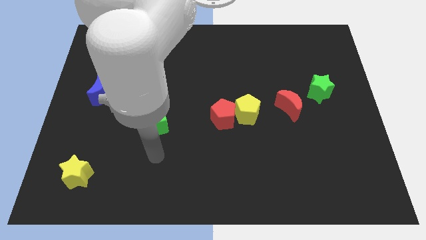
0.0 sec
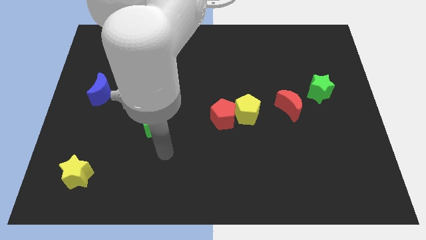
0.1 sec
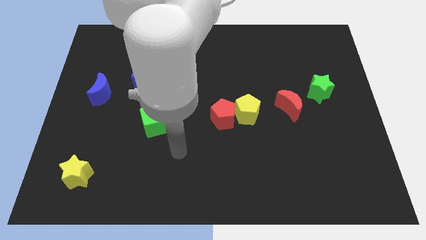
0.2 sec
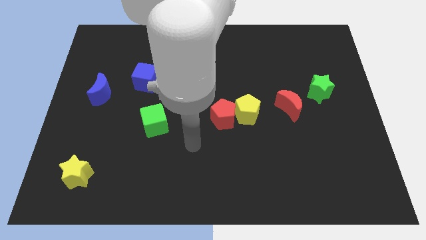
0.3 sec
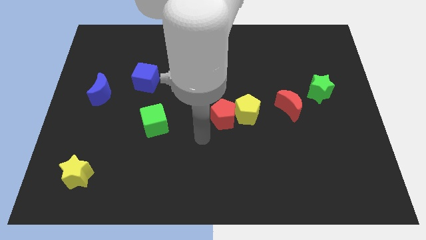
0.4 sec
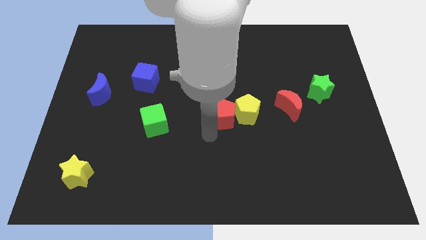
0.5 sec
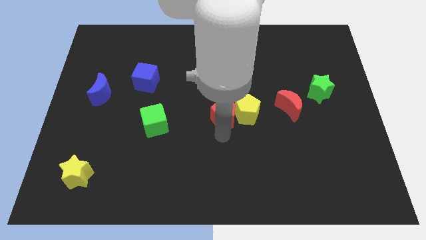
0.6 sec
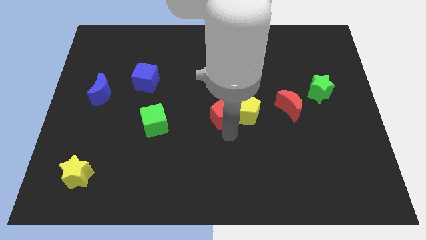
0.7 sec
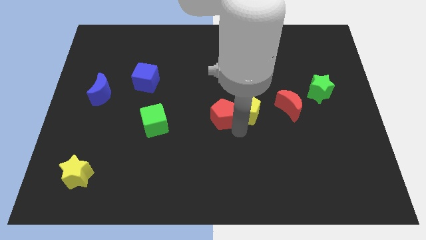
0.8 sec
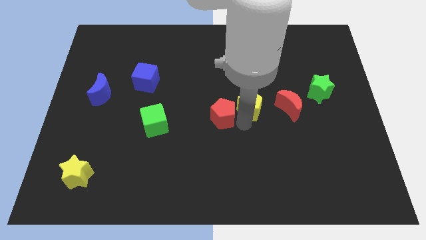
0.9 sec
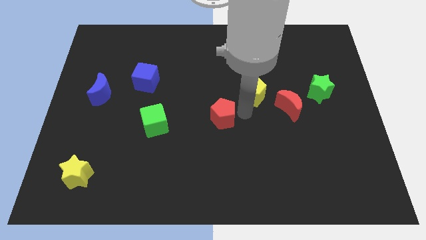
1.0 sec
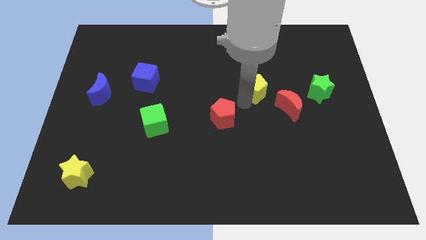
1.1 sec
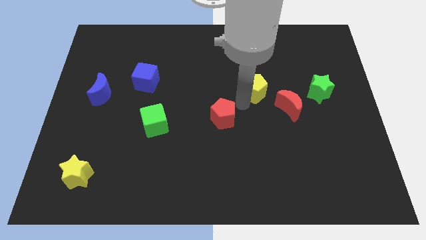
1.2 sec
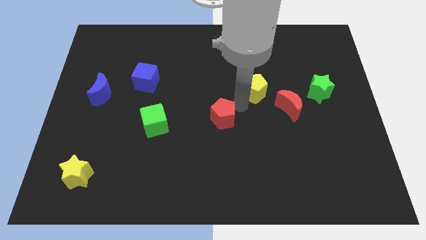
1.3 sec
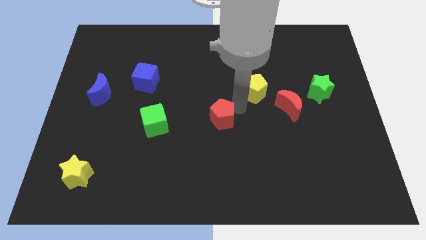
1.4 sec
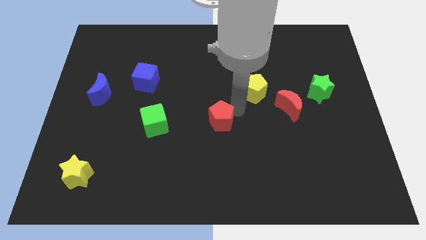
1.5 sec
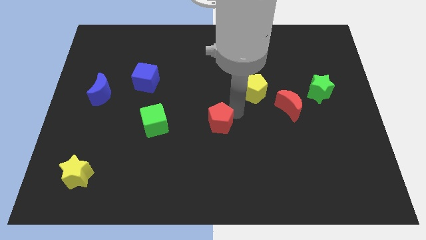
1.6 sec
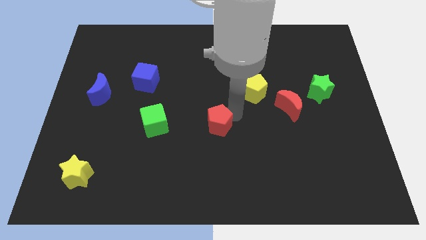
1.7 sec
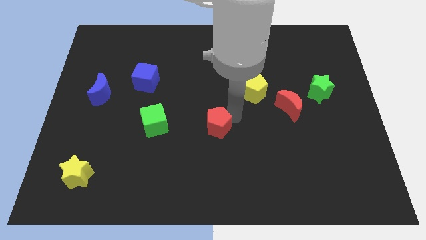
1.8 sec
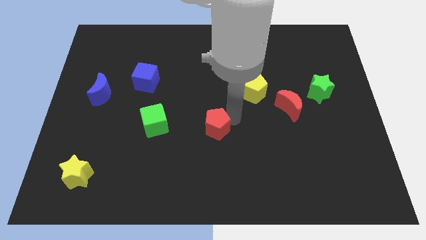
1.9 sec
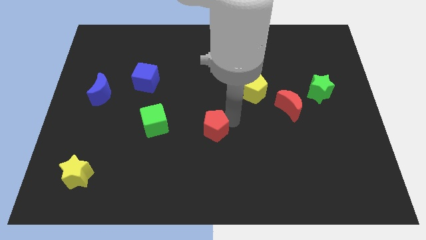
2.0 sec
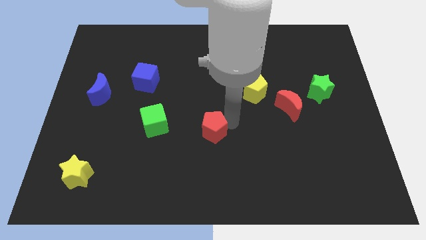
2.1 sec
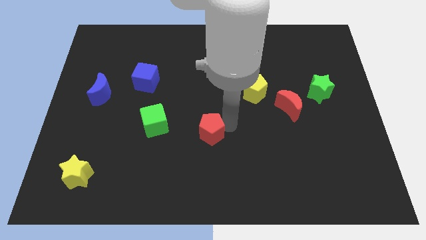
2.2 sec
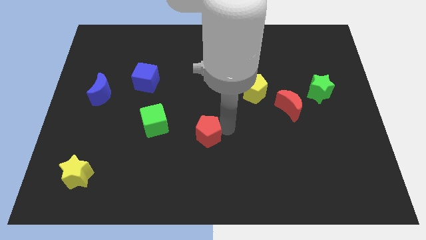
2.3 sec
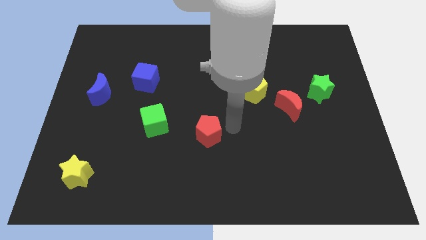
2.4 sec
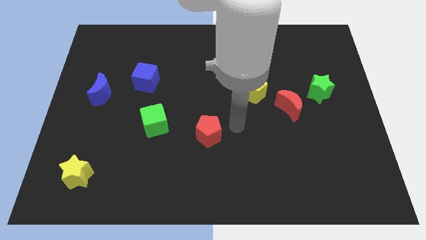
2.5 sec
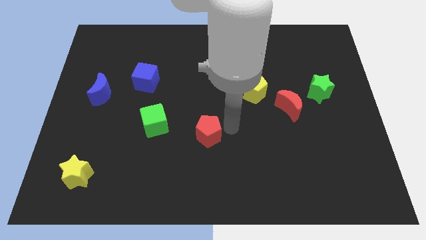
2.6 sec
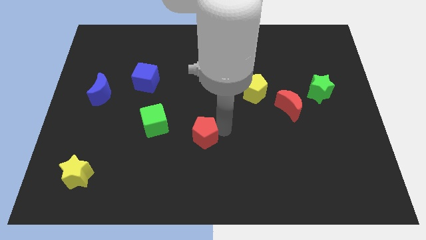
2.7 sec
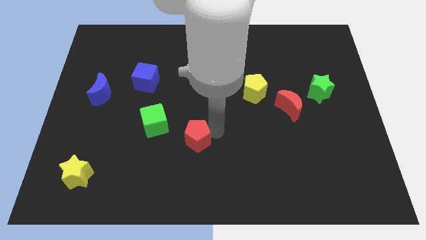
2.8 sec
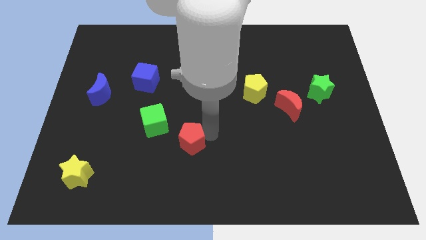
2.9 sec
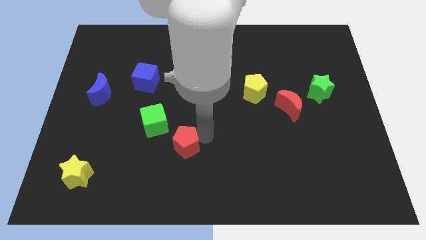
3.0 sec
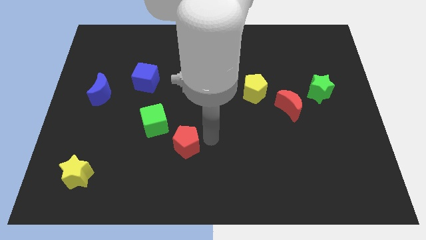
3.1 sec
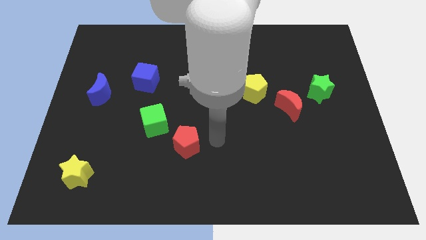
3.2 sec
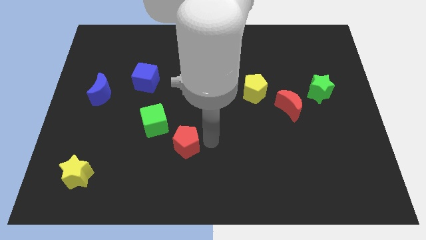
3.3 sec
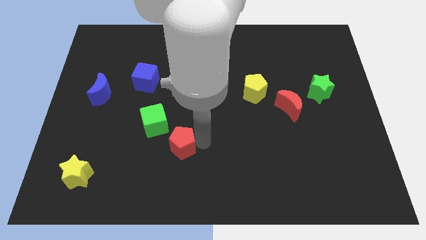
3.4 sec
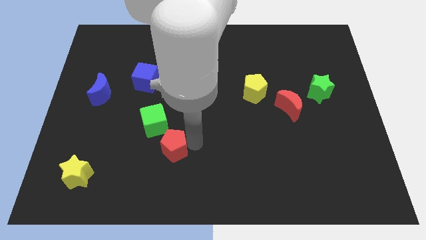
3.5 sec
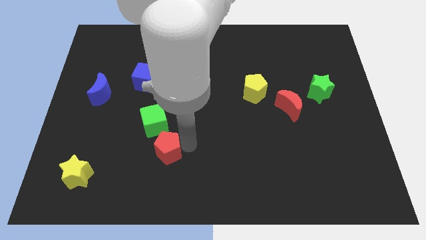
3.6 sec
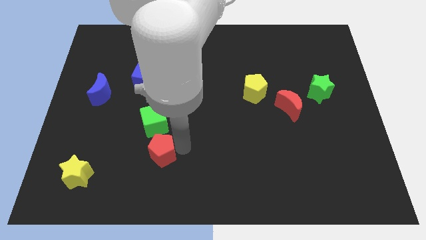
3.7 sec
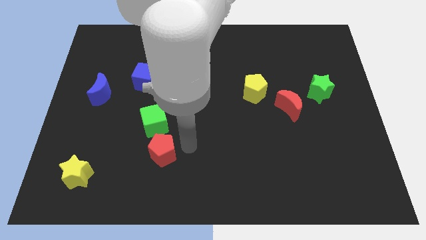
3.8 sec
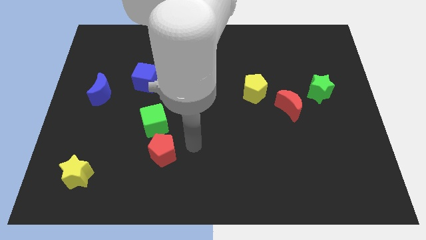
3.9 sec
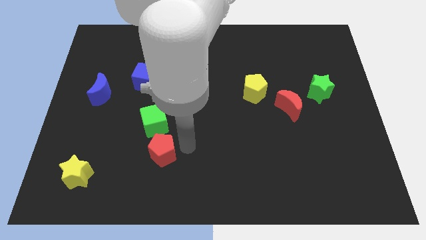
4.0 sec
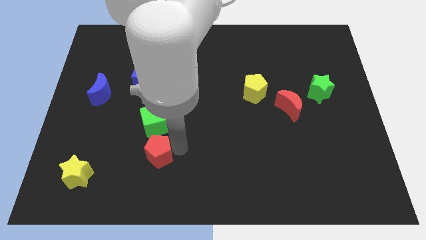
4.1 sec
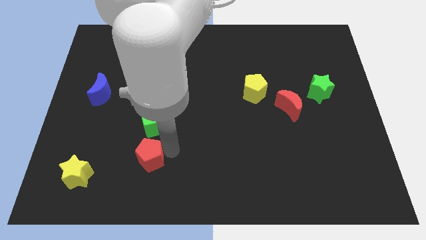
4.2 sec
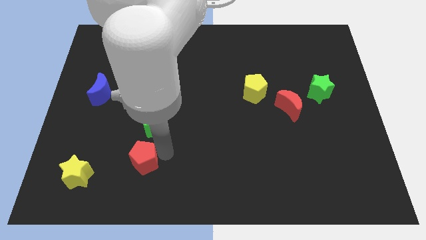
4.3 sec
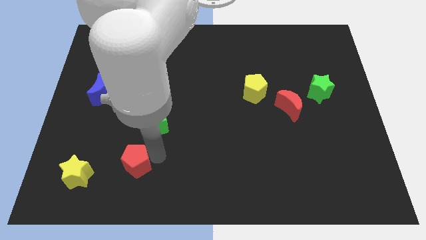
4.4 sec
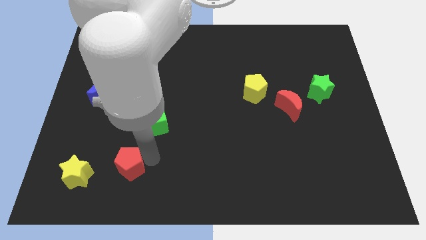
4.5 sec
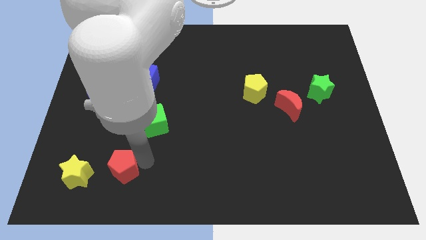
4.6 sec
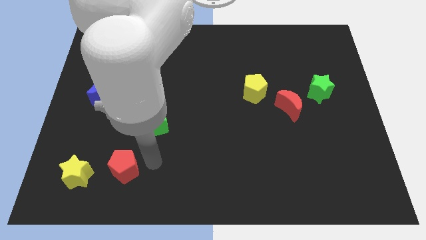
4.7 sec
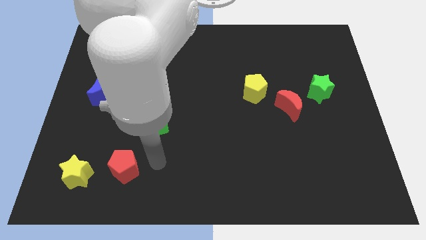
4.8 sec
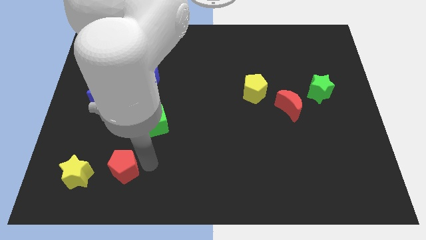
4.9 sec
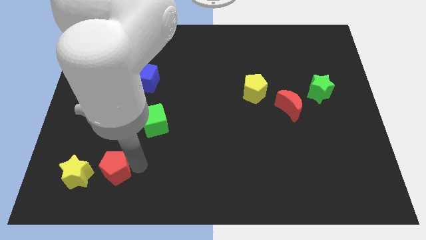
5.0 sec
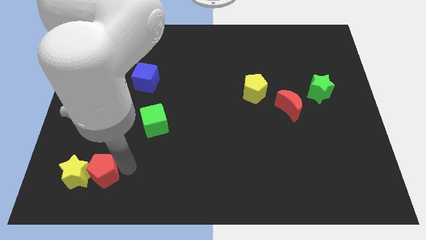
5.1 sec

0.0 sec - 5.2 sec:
slide the red pentagon next to the yellow star

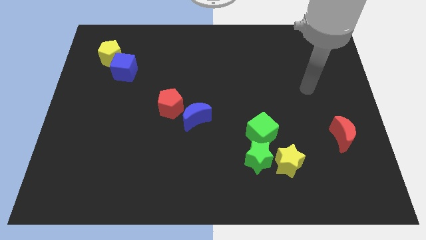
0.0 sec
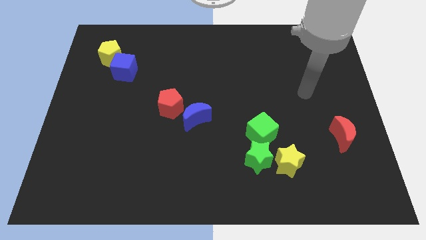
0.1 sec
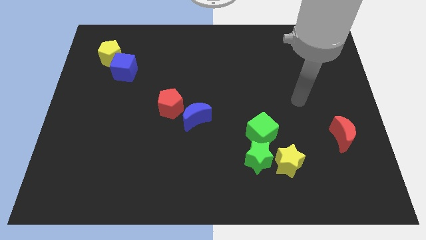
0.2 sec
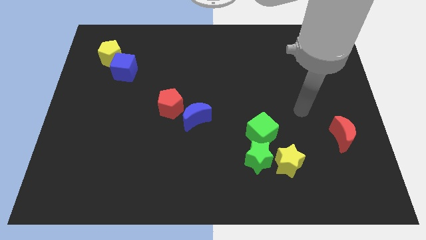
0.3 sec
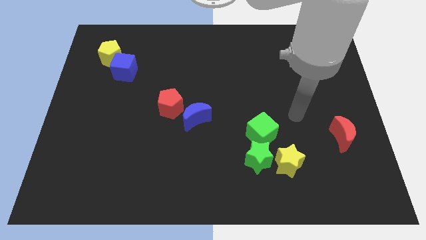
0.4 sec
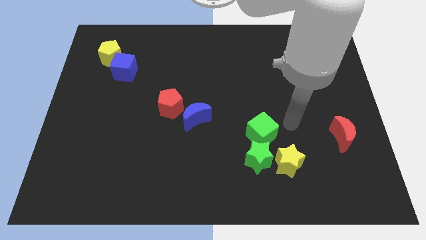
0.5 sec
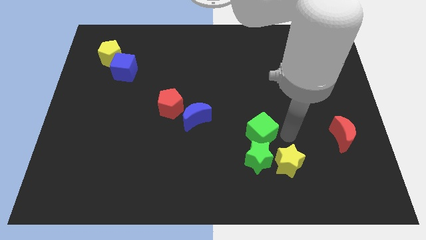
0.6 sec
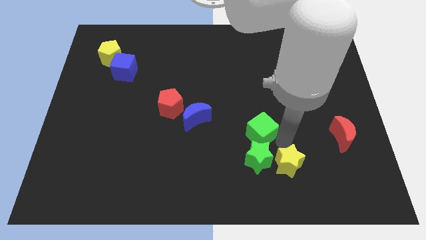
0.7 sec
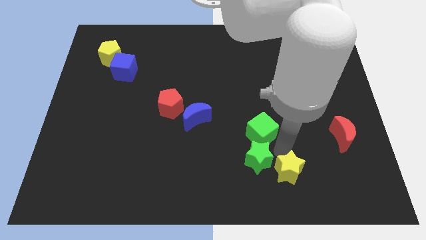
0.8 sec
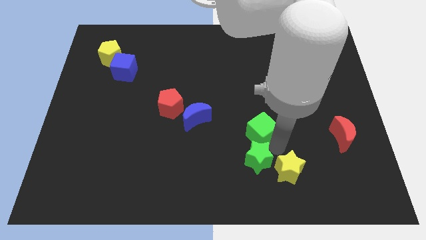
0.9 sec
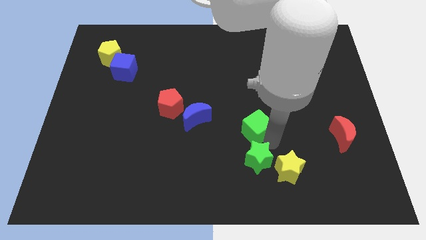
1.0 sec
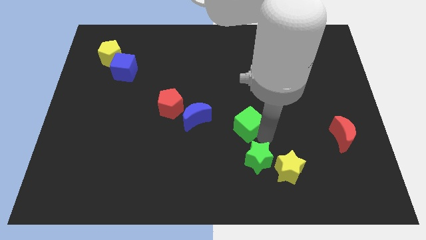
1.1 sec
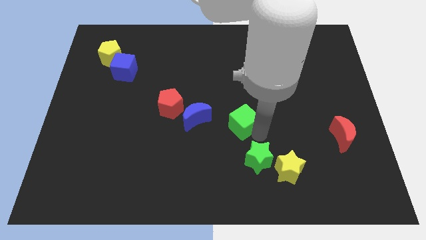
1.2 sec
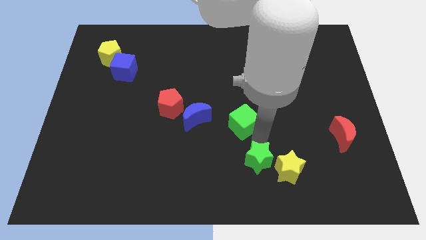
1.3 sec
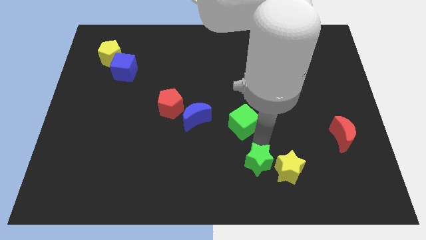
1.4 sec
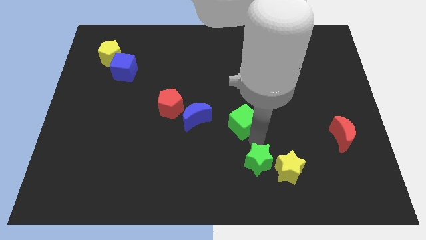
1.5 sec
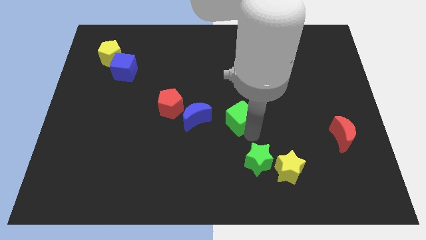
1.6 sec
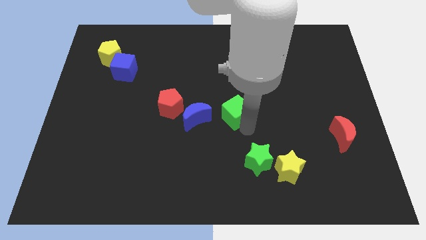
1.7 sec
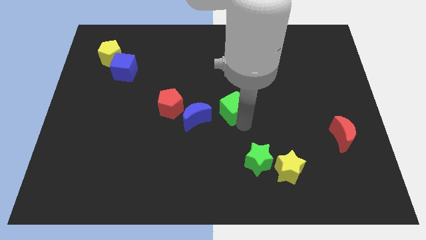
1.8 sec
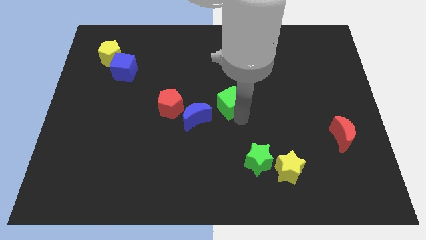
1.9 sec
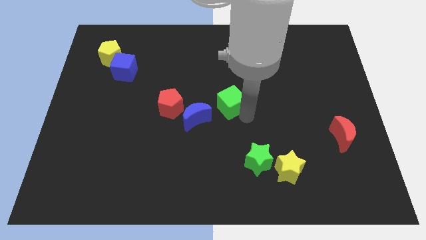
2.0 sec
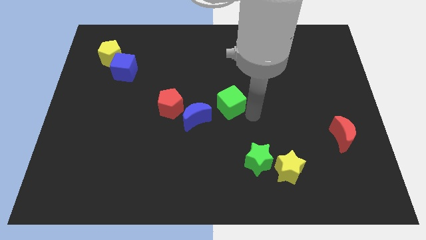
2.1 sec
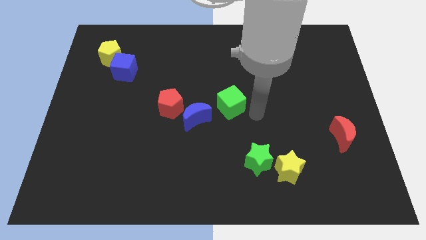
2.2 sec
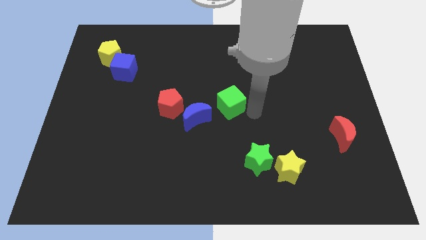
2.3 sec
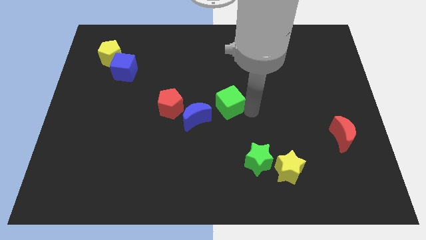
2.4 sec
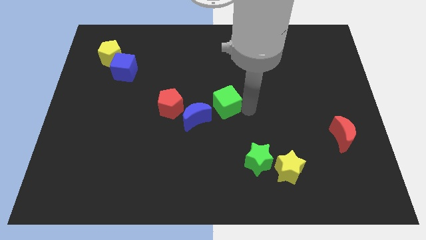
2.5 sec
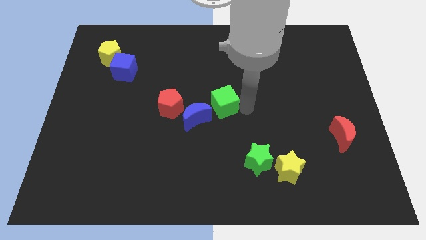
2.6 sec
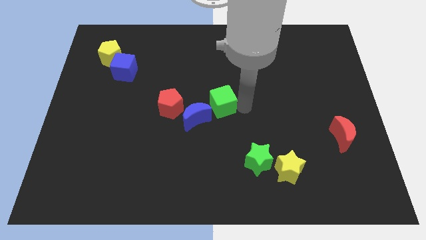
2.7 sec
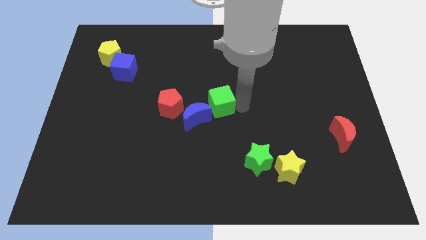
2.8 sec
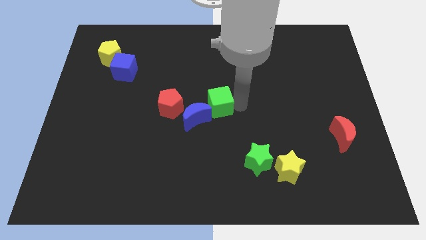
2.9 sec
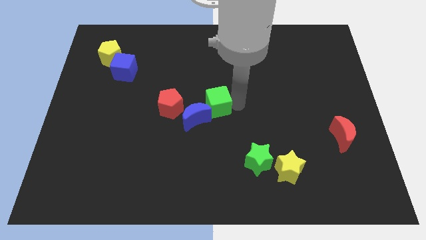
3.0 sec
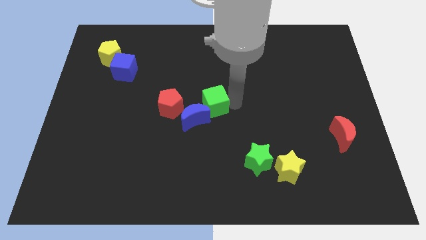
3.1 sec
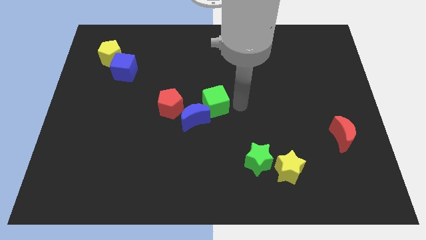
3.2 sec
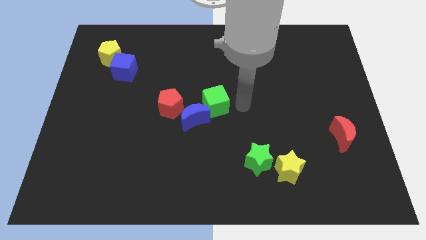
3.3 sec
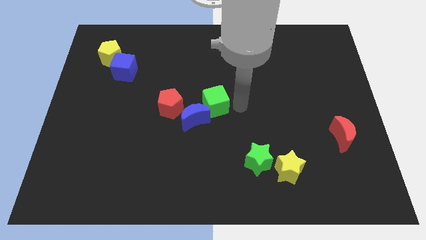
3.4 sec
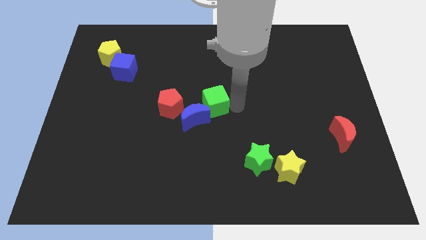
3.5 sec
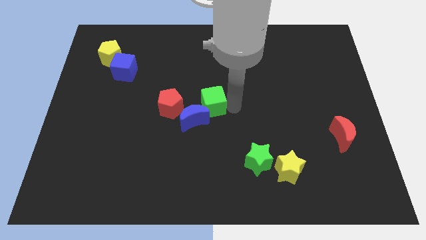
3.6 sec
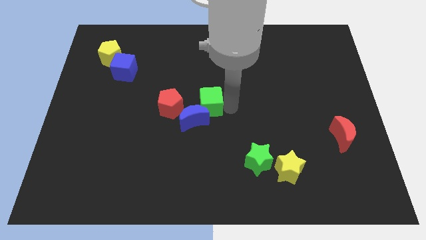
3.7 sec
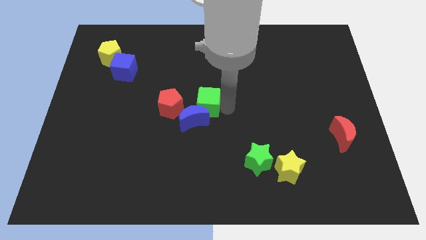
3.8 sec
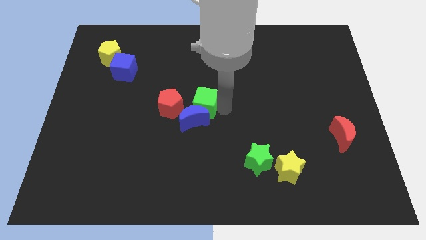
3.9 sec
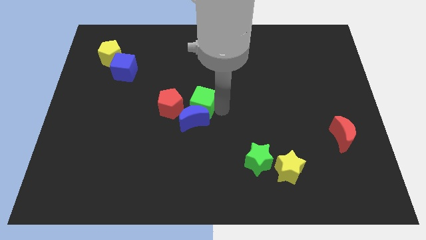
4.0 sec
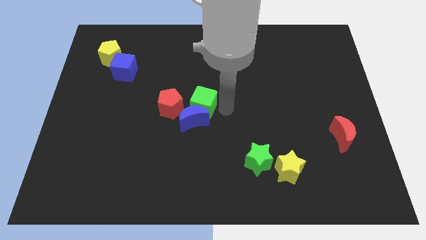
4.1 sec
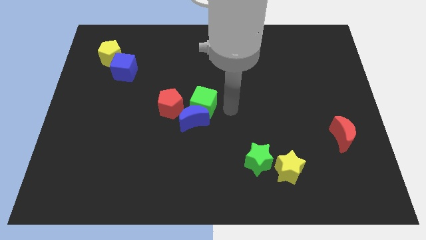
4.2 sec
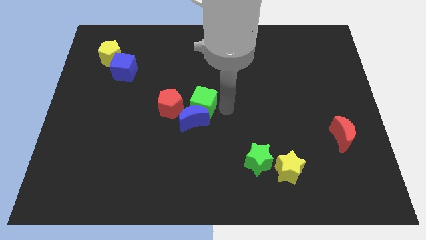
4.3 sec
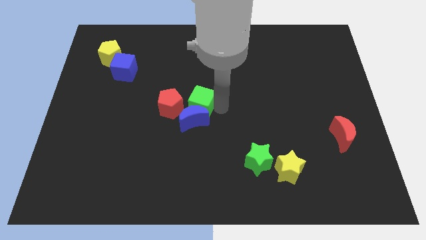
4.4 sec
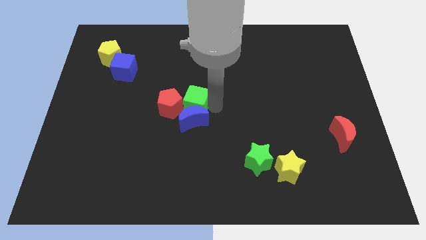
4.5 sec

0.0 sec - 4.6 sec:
move the green cube close to the red pentagon
